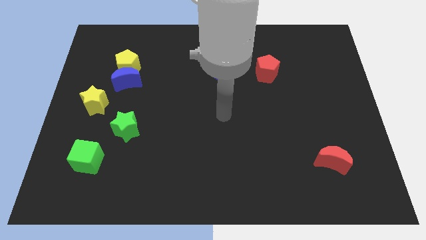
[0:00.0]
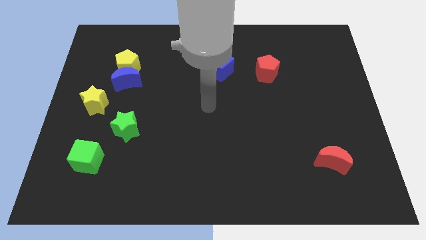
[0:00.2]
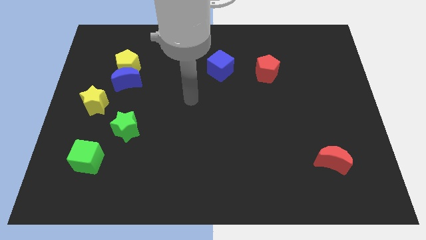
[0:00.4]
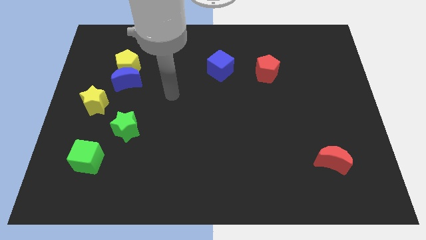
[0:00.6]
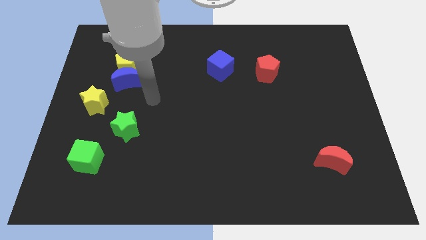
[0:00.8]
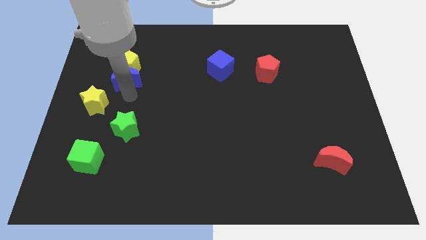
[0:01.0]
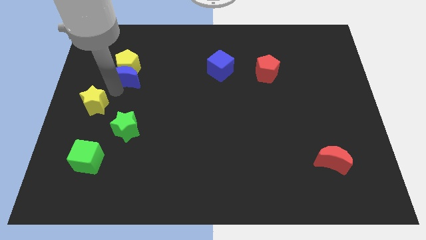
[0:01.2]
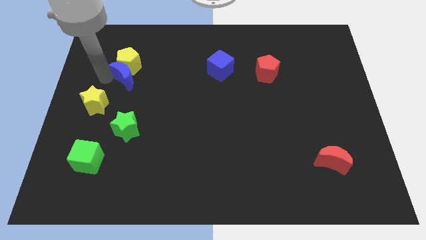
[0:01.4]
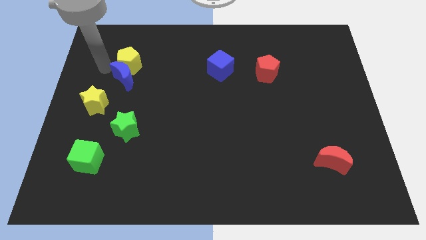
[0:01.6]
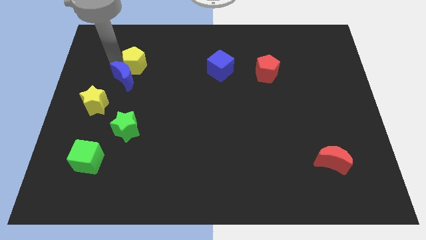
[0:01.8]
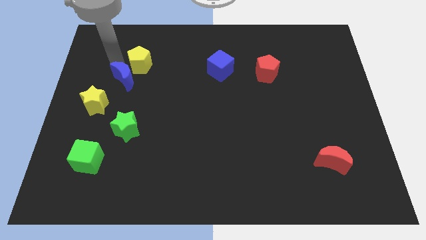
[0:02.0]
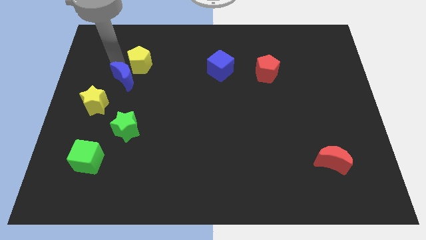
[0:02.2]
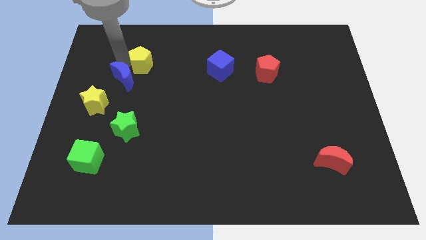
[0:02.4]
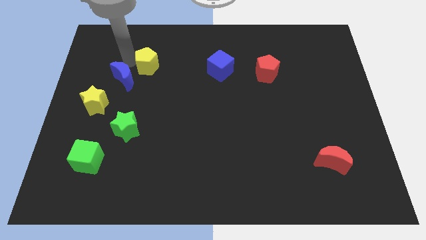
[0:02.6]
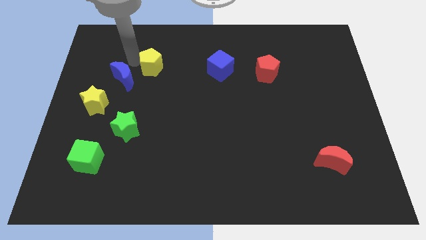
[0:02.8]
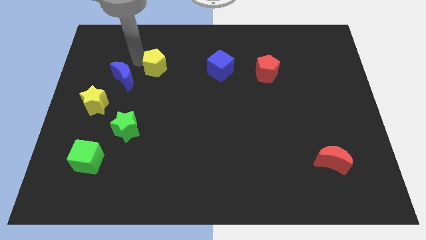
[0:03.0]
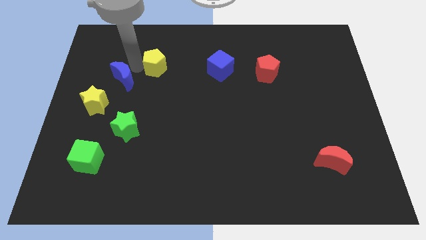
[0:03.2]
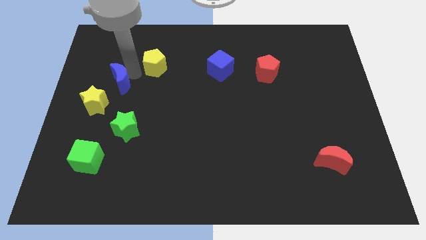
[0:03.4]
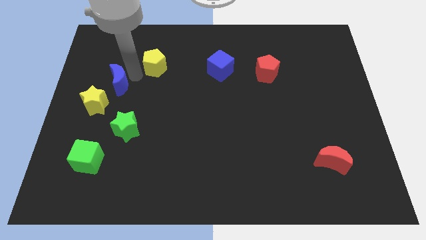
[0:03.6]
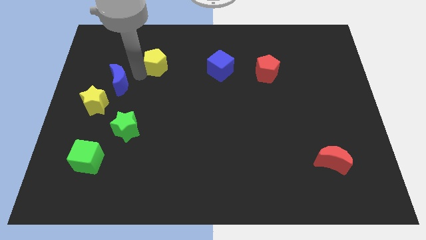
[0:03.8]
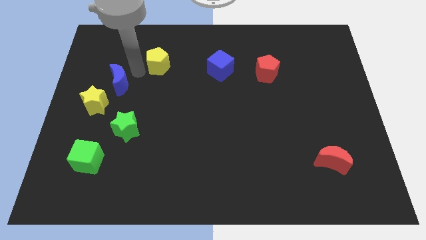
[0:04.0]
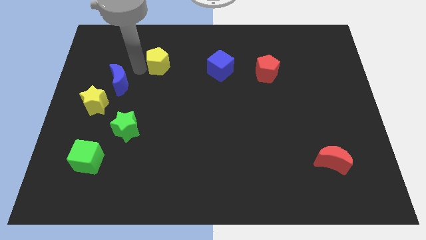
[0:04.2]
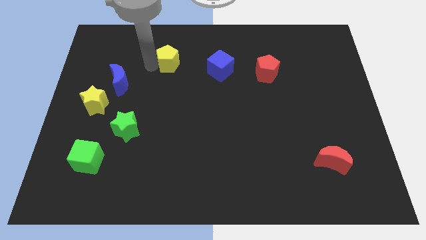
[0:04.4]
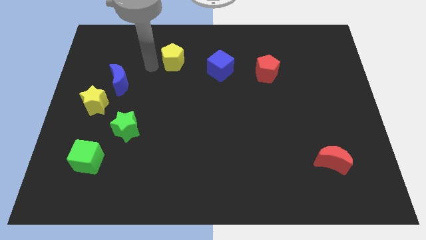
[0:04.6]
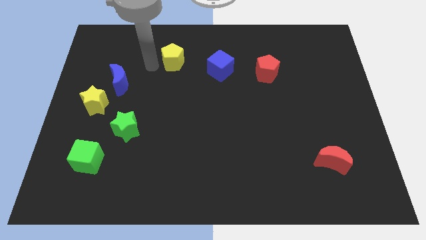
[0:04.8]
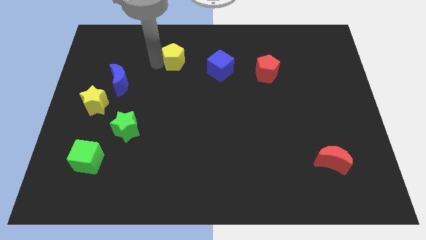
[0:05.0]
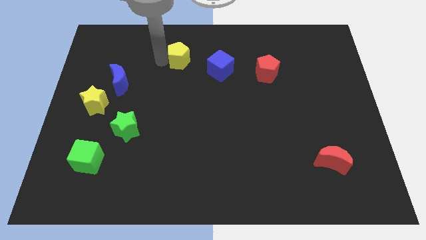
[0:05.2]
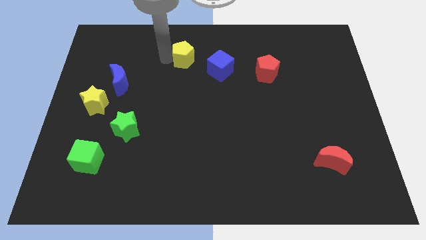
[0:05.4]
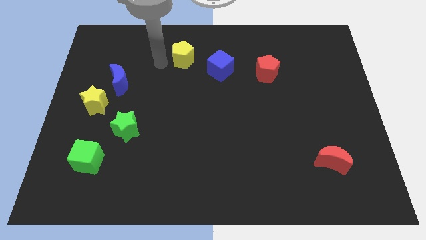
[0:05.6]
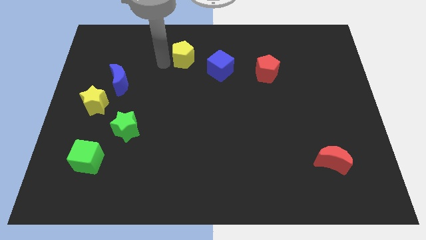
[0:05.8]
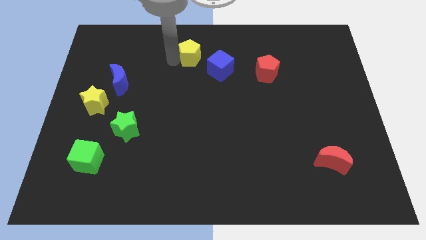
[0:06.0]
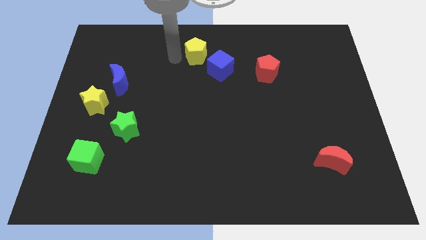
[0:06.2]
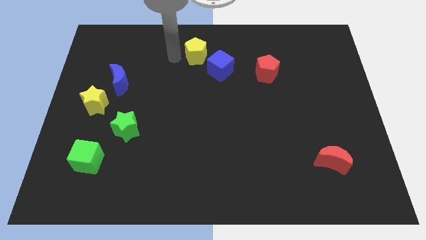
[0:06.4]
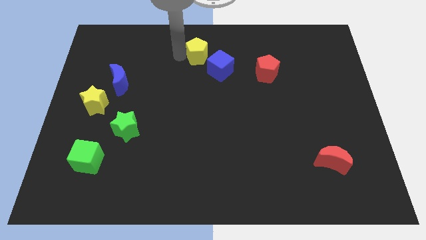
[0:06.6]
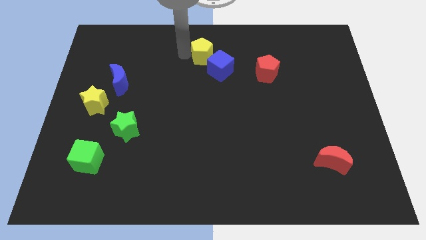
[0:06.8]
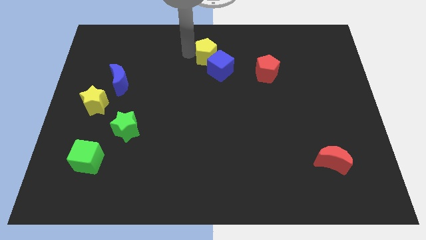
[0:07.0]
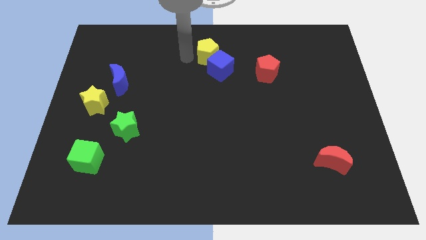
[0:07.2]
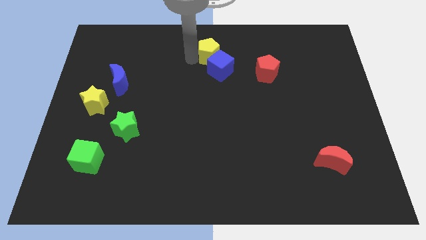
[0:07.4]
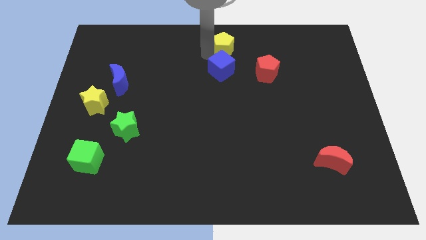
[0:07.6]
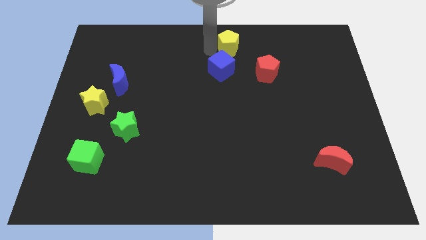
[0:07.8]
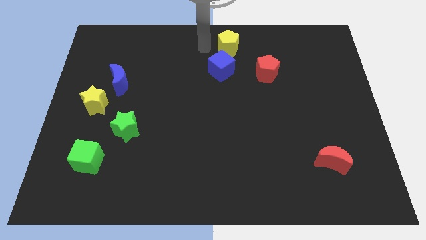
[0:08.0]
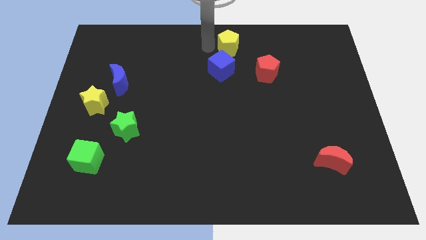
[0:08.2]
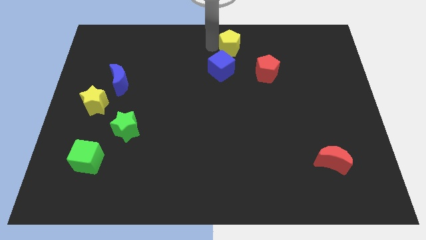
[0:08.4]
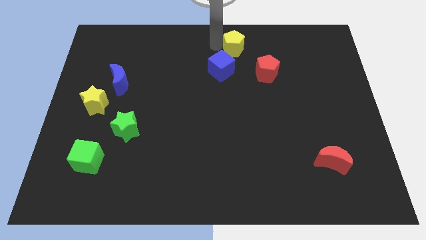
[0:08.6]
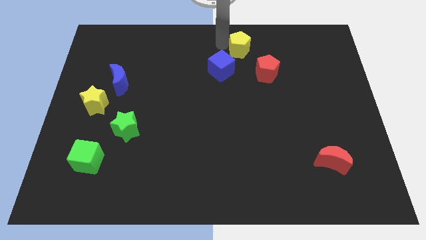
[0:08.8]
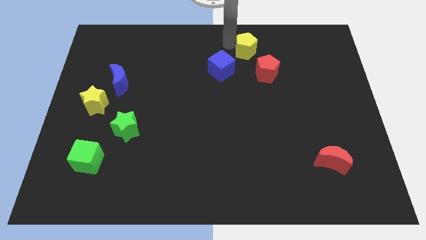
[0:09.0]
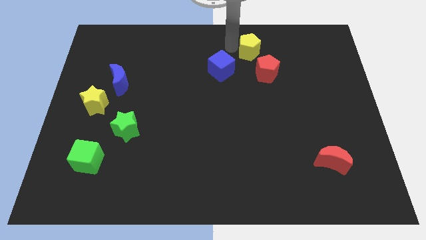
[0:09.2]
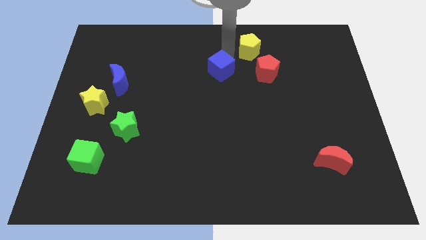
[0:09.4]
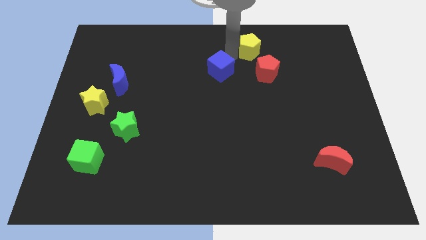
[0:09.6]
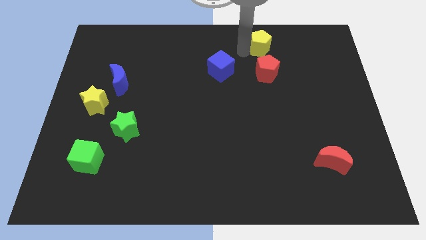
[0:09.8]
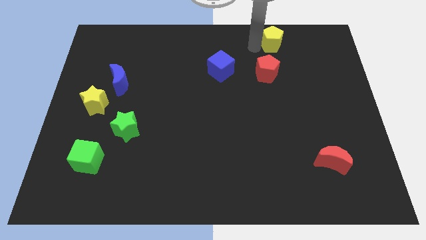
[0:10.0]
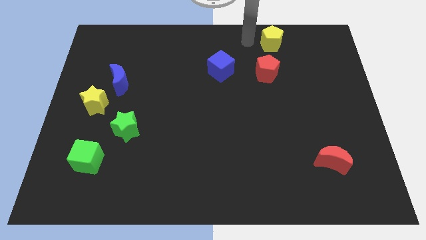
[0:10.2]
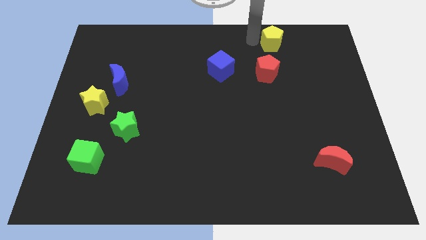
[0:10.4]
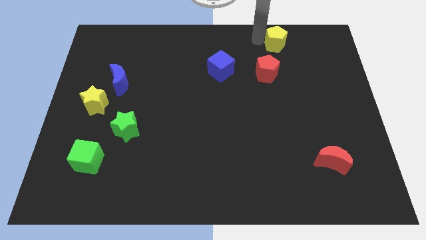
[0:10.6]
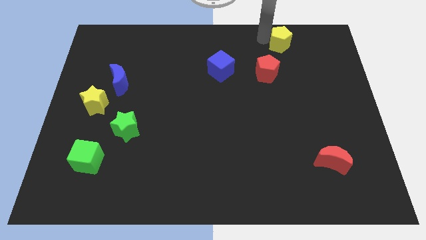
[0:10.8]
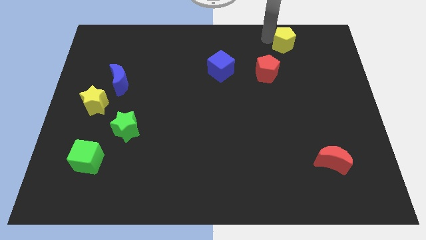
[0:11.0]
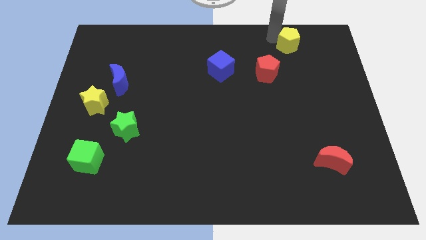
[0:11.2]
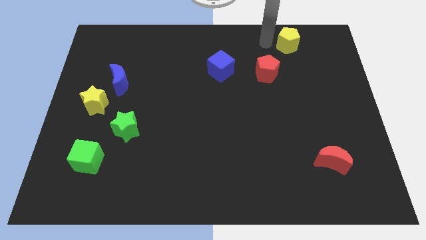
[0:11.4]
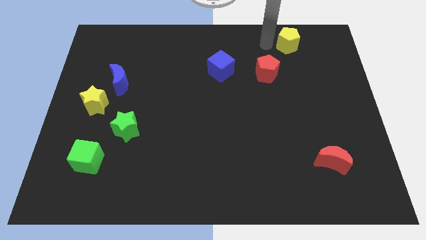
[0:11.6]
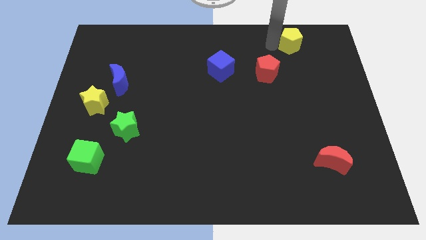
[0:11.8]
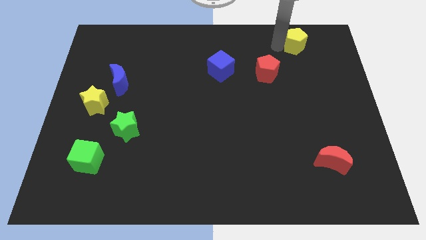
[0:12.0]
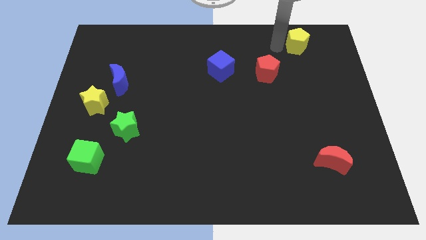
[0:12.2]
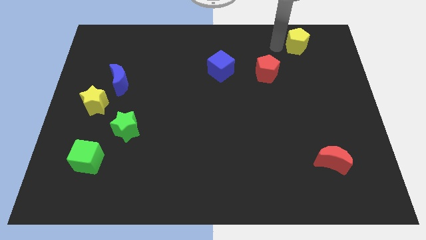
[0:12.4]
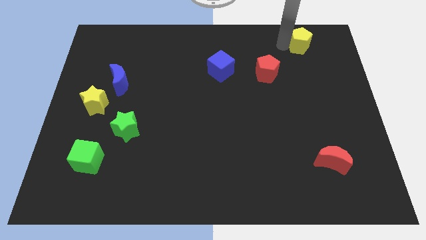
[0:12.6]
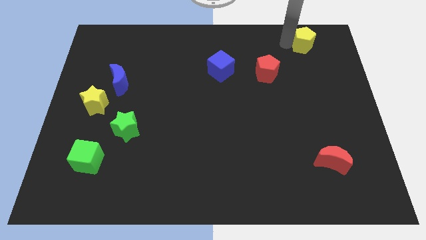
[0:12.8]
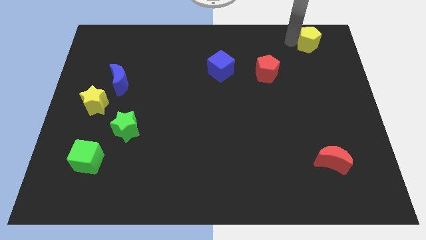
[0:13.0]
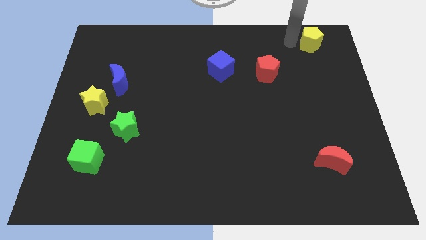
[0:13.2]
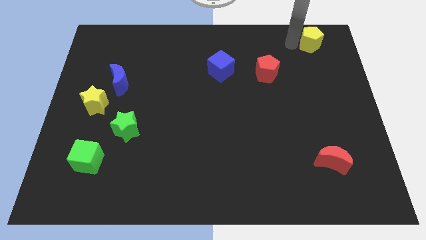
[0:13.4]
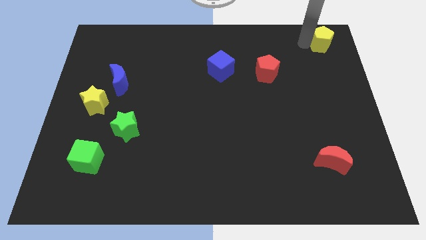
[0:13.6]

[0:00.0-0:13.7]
slide the yellow pentagon to the upper right corner

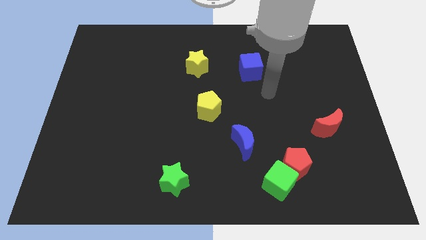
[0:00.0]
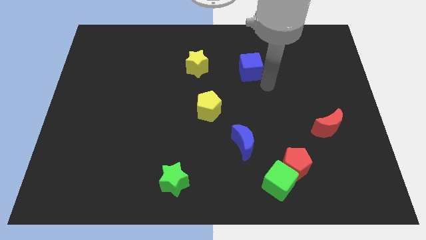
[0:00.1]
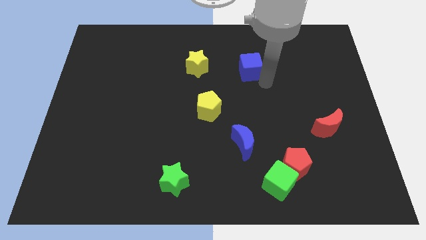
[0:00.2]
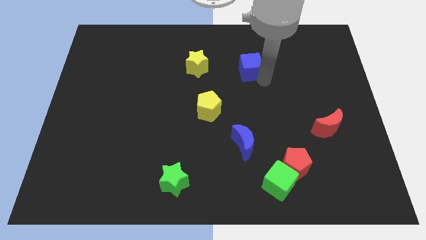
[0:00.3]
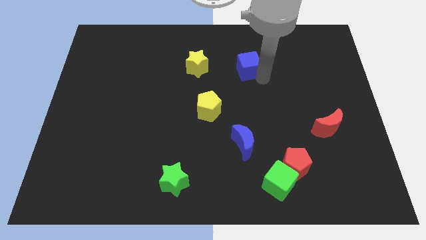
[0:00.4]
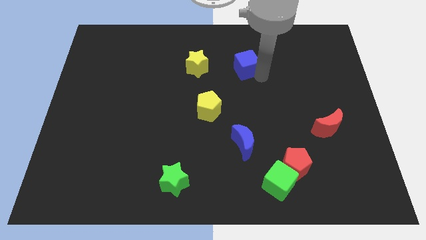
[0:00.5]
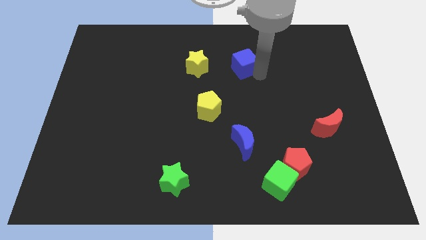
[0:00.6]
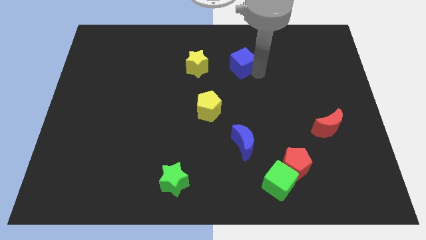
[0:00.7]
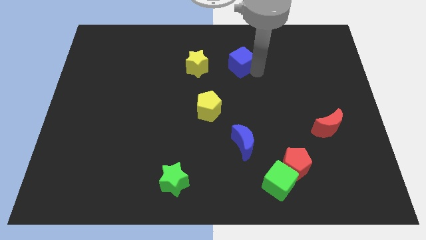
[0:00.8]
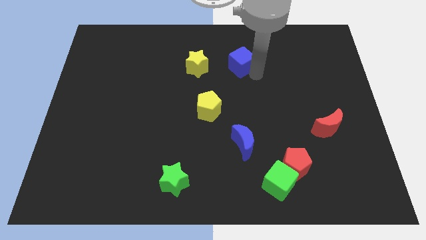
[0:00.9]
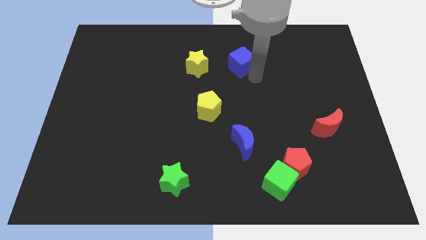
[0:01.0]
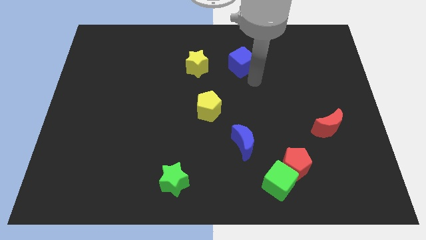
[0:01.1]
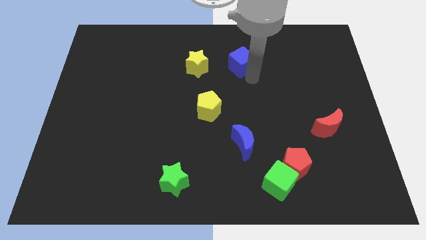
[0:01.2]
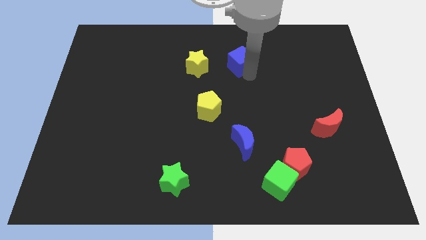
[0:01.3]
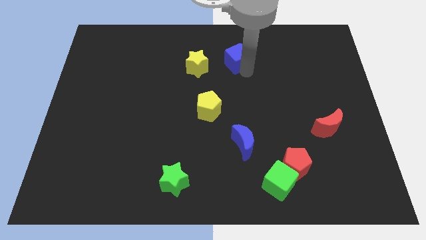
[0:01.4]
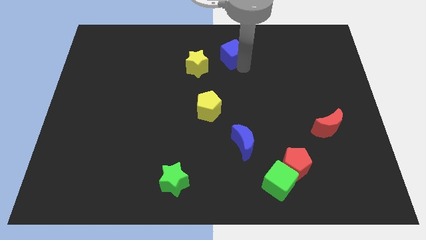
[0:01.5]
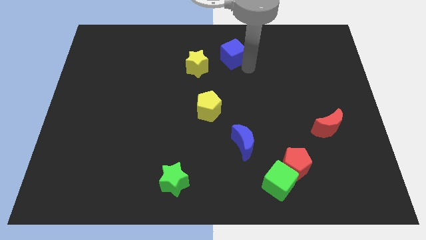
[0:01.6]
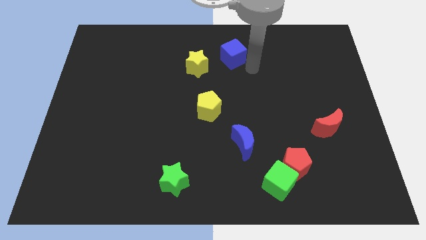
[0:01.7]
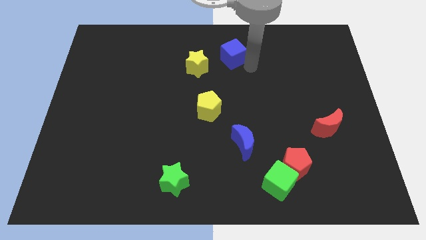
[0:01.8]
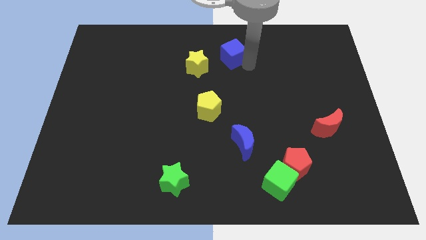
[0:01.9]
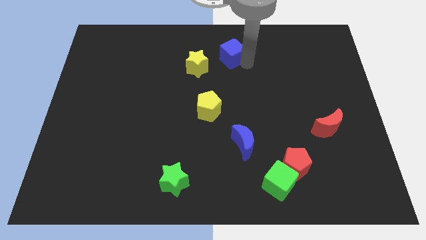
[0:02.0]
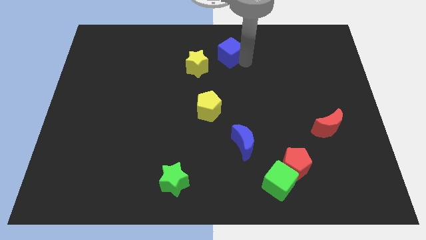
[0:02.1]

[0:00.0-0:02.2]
put the blue cube to the top
